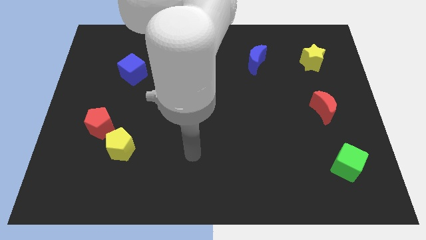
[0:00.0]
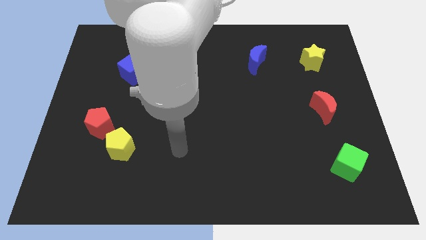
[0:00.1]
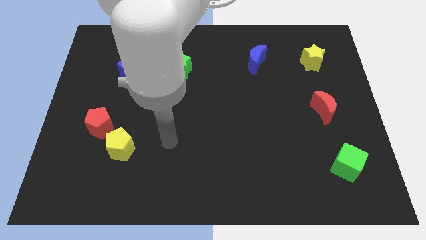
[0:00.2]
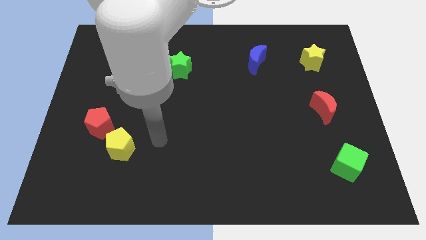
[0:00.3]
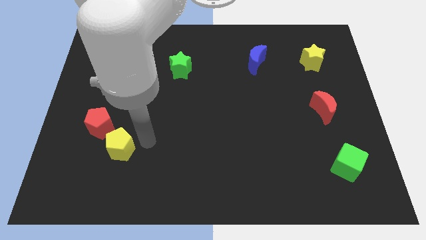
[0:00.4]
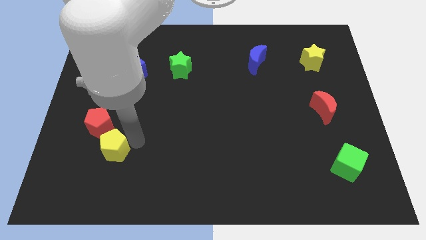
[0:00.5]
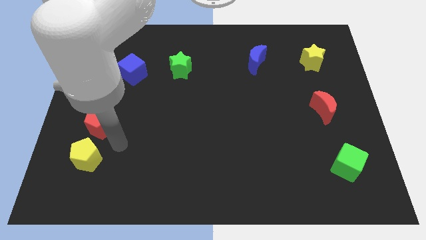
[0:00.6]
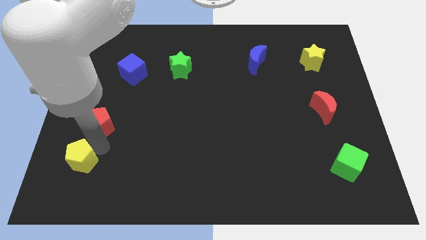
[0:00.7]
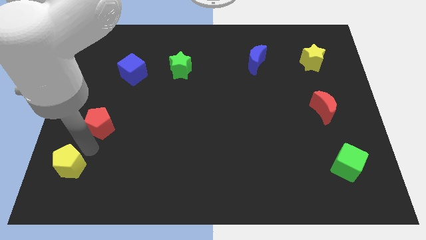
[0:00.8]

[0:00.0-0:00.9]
pull the red pentagon apart from the yellow pentagon

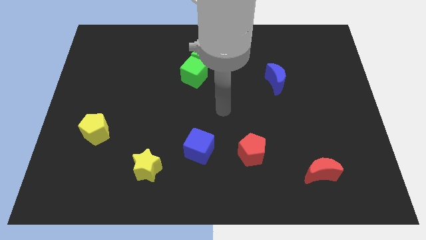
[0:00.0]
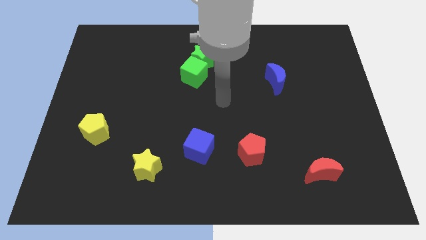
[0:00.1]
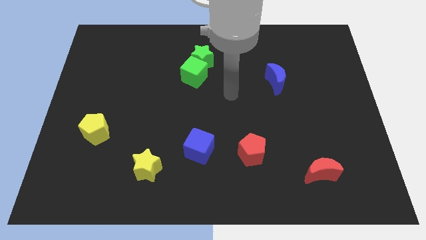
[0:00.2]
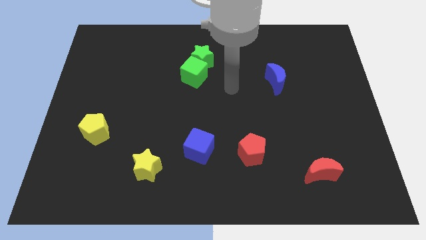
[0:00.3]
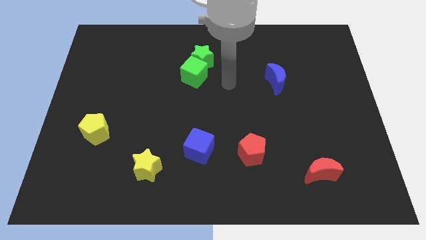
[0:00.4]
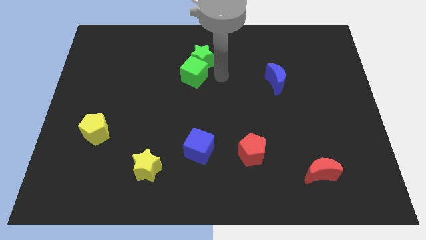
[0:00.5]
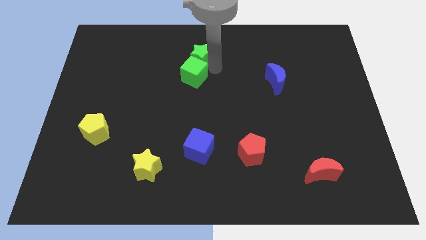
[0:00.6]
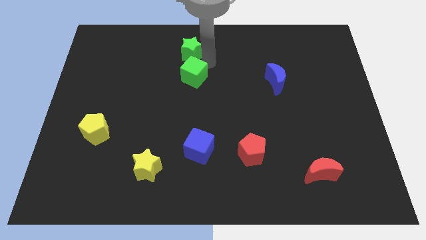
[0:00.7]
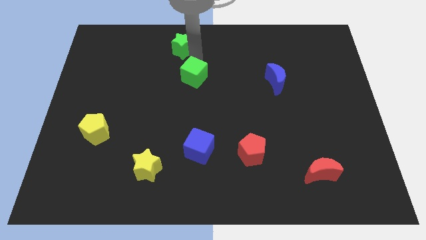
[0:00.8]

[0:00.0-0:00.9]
move the green cube away from the green star

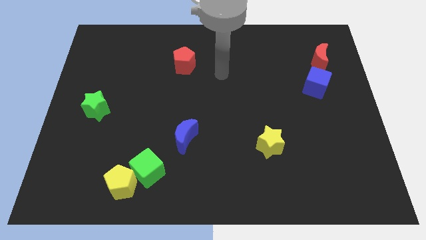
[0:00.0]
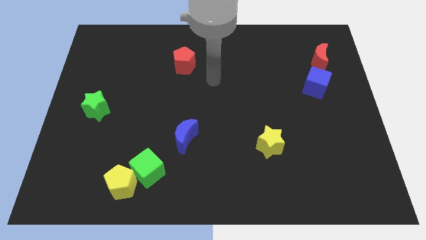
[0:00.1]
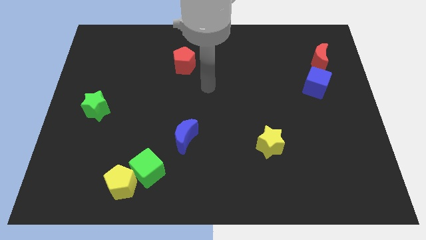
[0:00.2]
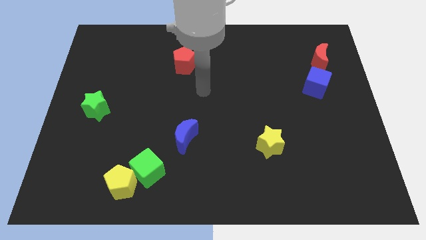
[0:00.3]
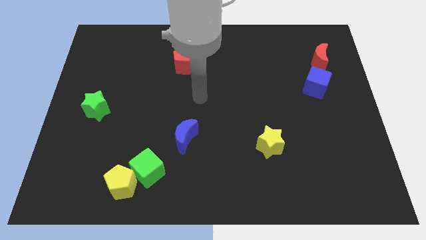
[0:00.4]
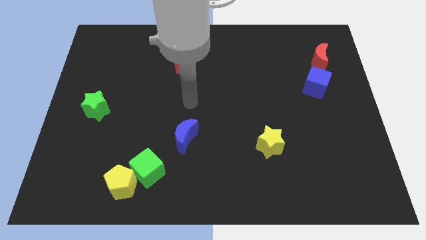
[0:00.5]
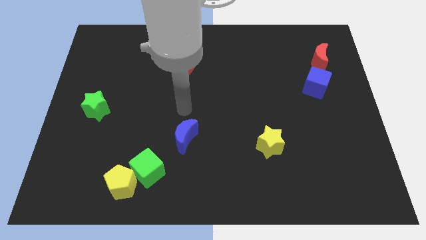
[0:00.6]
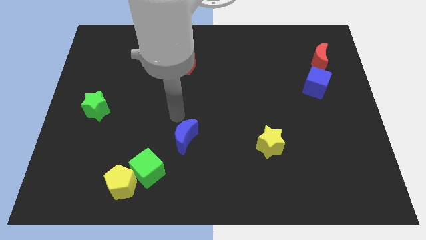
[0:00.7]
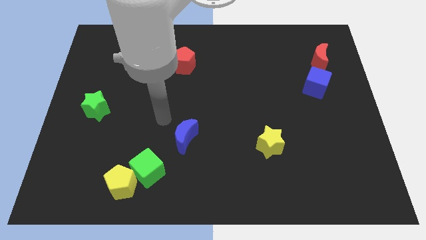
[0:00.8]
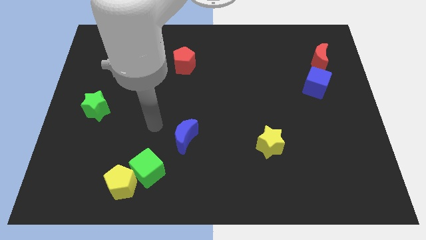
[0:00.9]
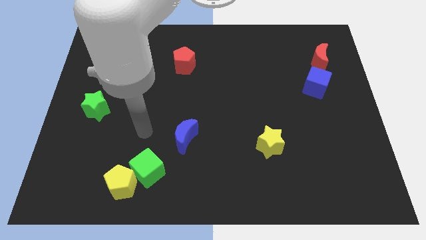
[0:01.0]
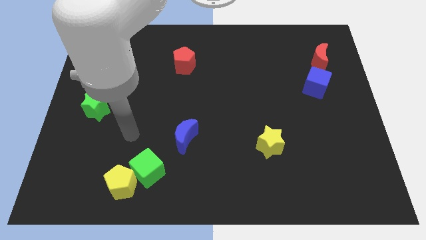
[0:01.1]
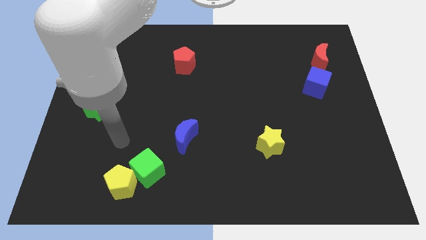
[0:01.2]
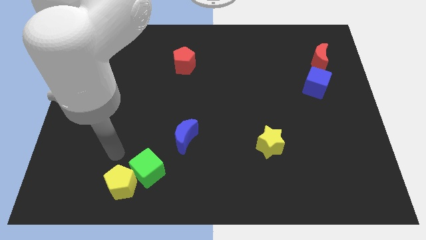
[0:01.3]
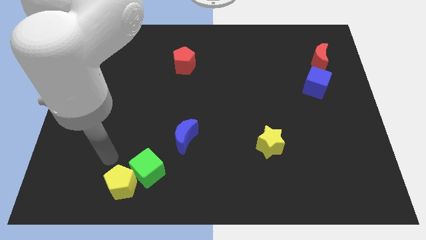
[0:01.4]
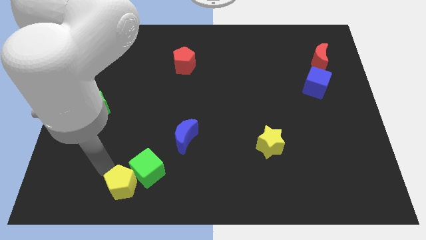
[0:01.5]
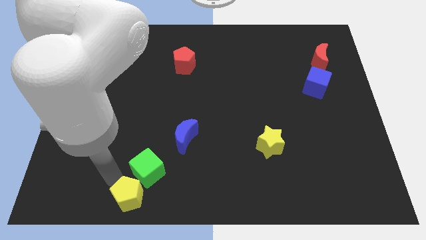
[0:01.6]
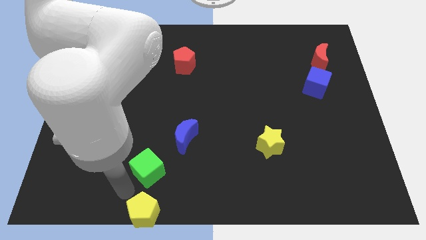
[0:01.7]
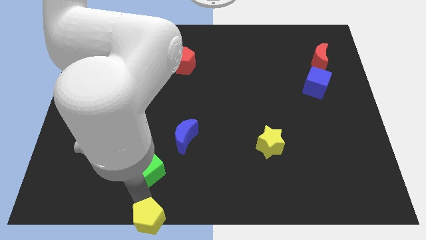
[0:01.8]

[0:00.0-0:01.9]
pull the green cube apart from the yellow pentagon

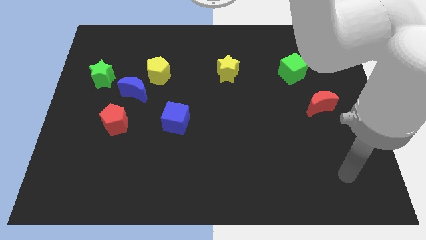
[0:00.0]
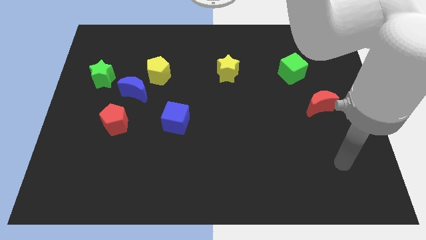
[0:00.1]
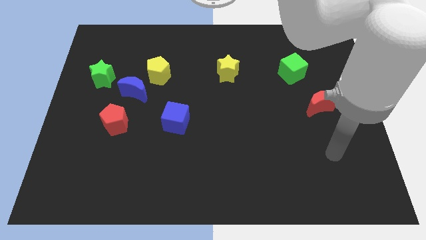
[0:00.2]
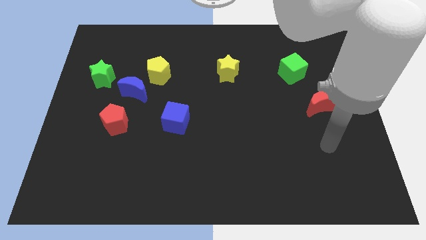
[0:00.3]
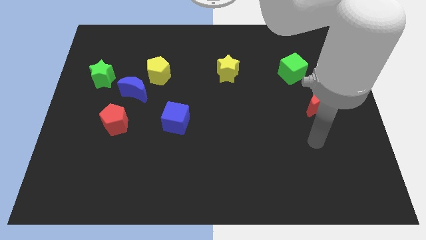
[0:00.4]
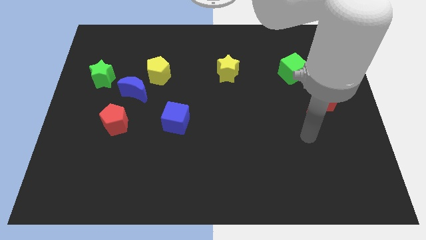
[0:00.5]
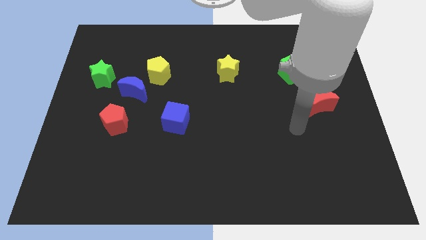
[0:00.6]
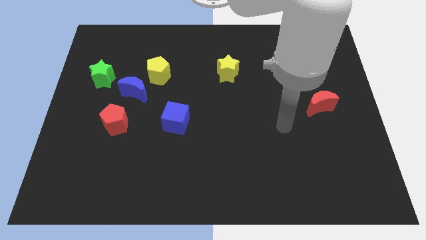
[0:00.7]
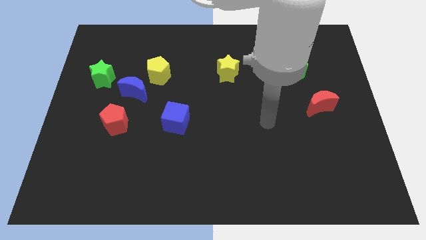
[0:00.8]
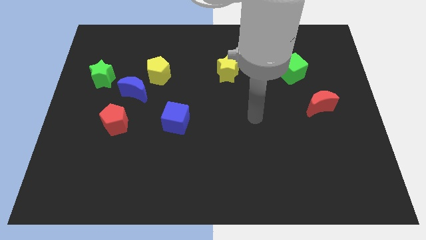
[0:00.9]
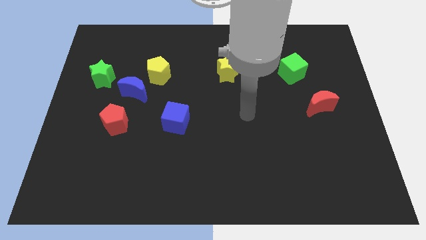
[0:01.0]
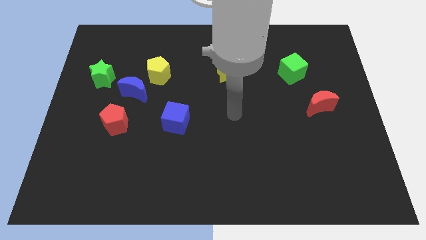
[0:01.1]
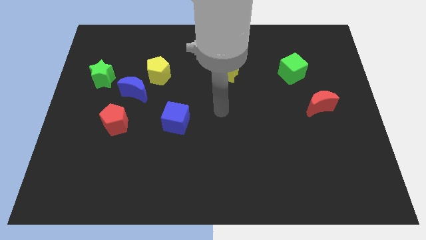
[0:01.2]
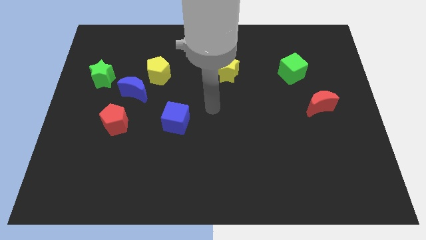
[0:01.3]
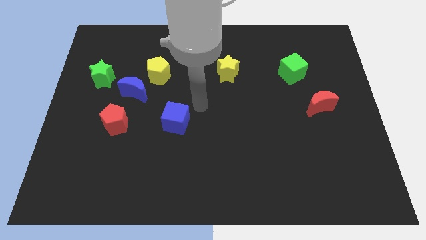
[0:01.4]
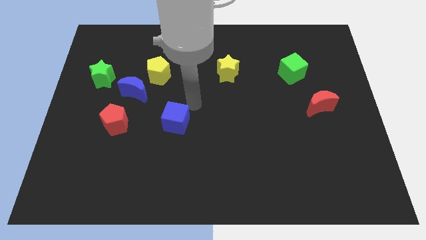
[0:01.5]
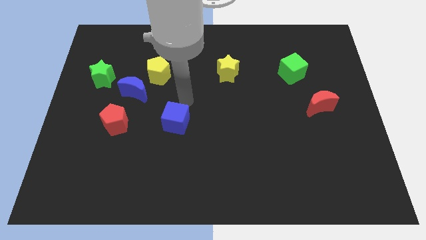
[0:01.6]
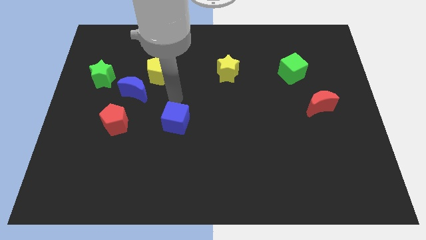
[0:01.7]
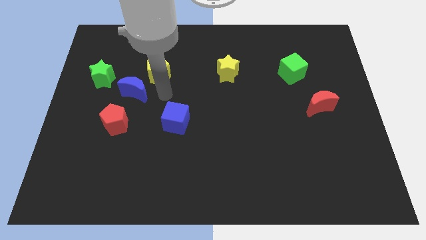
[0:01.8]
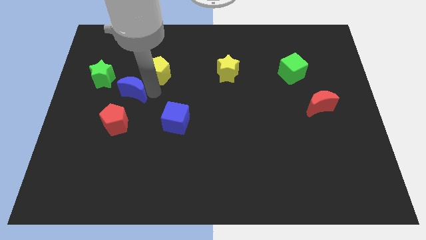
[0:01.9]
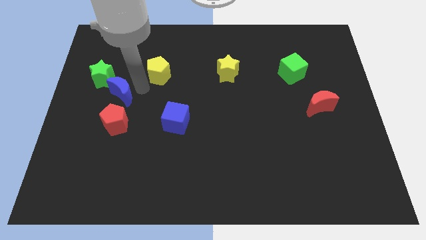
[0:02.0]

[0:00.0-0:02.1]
pull the yellow pentagon apart from the blue moon

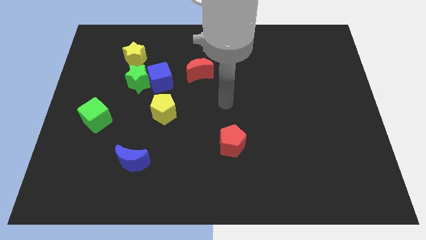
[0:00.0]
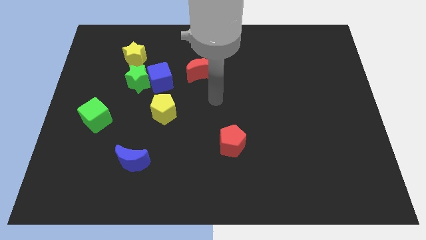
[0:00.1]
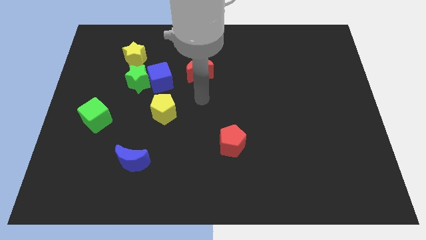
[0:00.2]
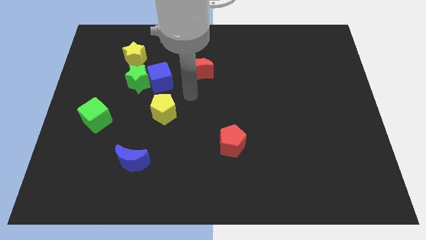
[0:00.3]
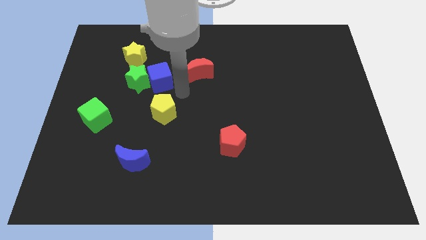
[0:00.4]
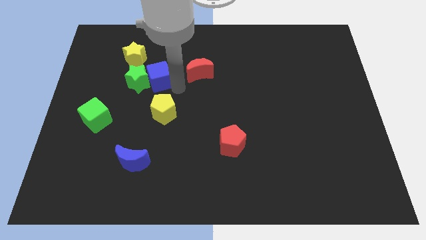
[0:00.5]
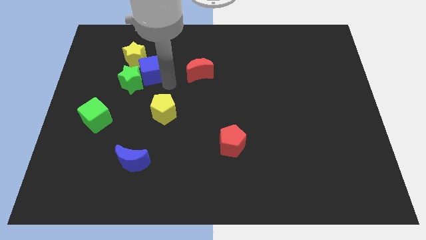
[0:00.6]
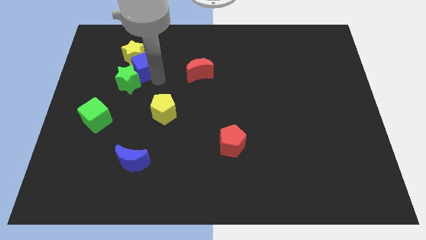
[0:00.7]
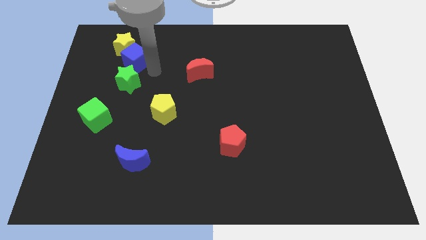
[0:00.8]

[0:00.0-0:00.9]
separate the green star from the blue cube and yellow star

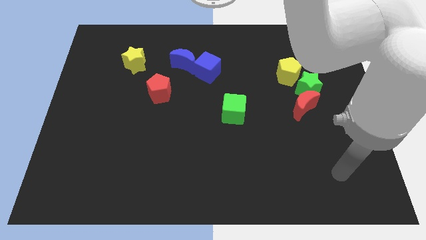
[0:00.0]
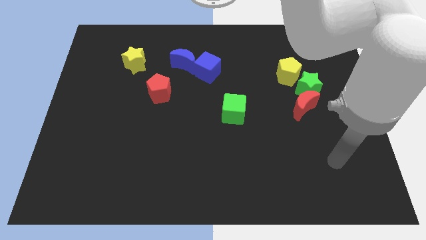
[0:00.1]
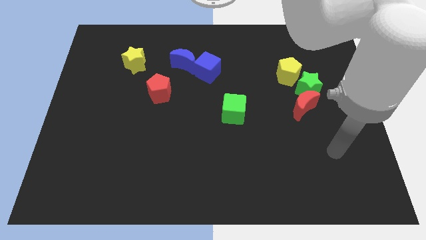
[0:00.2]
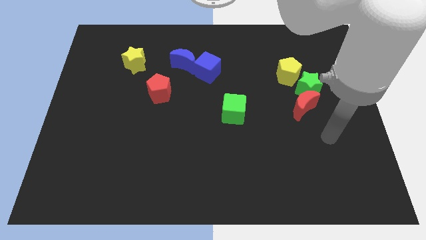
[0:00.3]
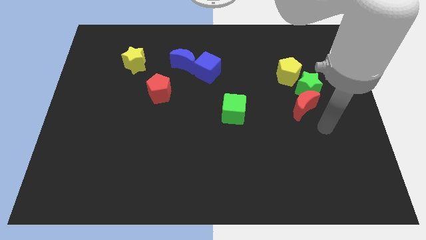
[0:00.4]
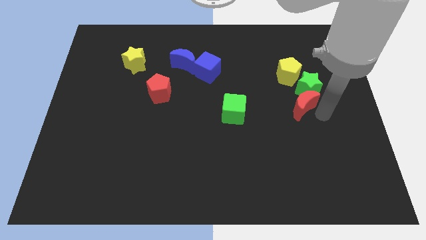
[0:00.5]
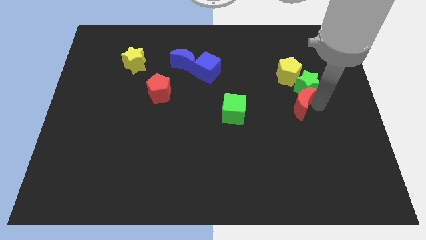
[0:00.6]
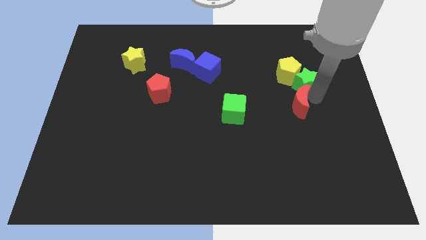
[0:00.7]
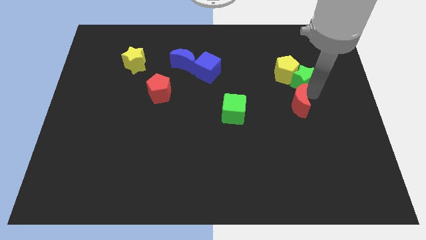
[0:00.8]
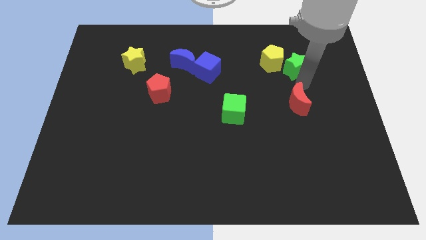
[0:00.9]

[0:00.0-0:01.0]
move the red moon away from the green star

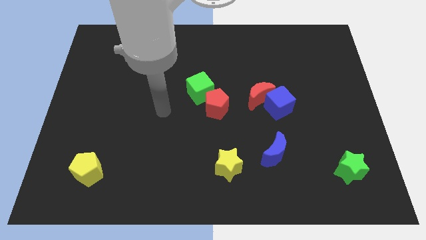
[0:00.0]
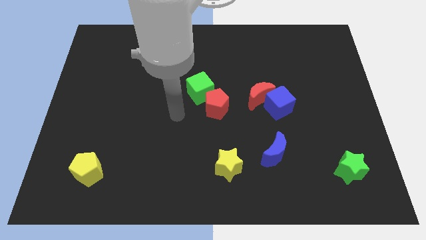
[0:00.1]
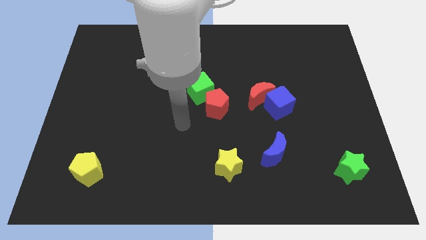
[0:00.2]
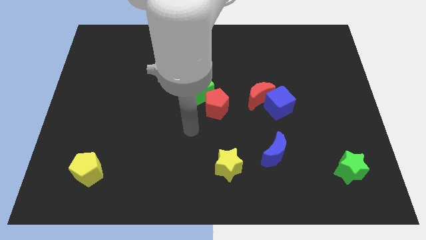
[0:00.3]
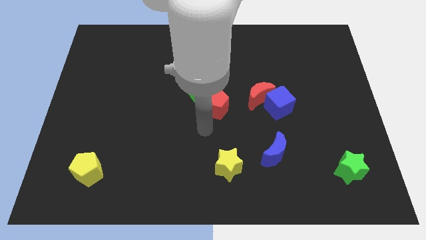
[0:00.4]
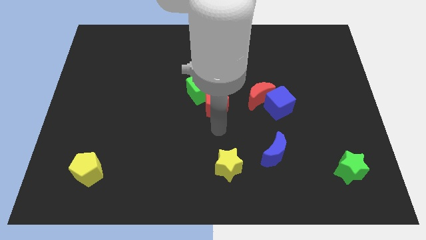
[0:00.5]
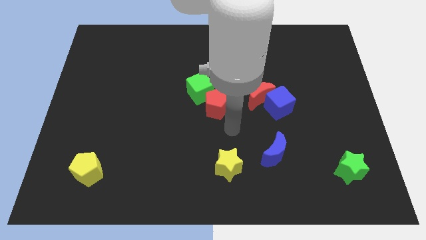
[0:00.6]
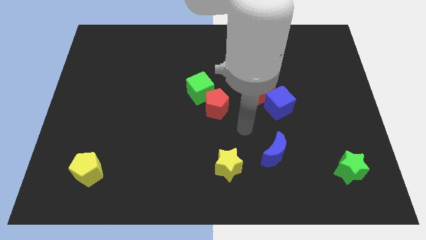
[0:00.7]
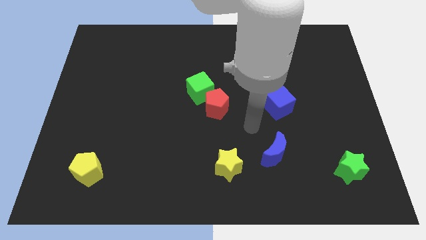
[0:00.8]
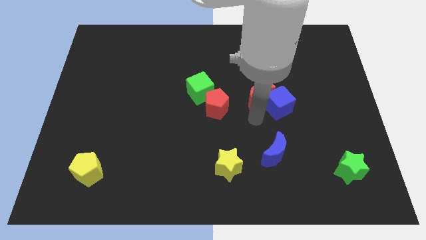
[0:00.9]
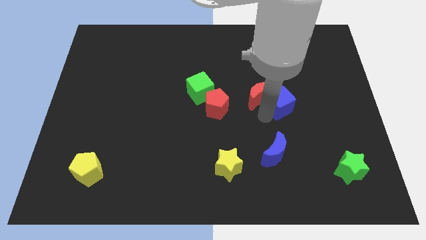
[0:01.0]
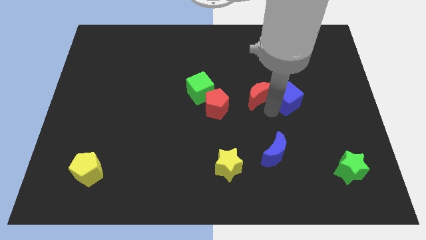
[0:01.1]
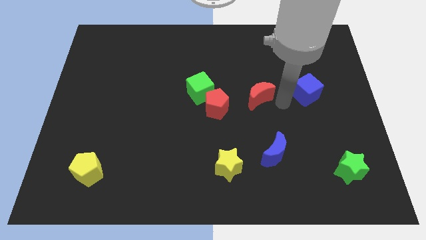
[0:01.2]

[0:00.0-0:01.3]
separate the red moon from the blue cube

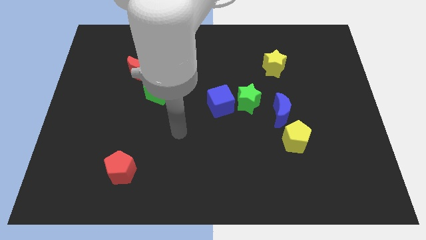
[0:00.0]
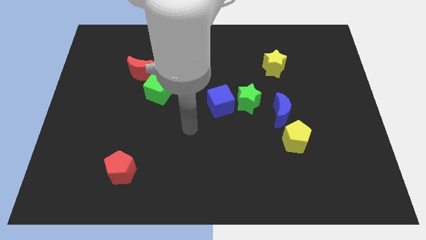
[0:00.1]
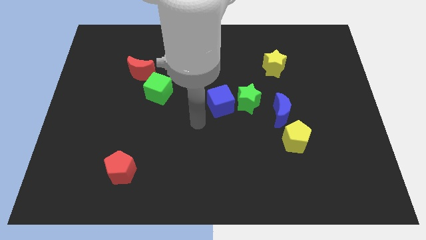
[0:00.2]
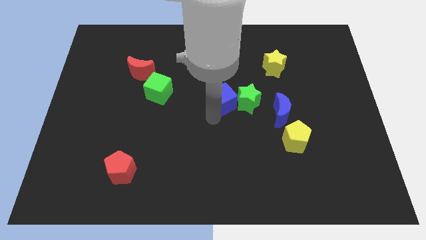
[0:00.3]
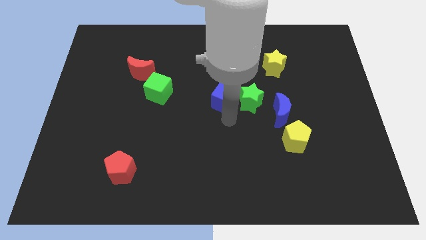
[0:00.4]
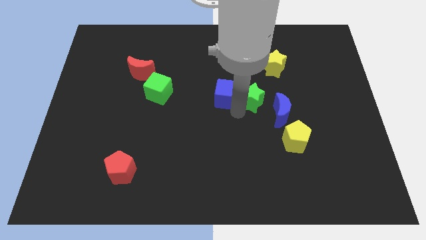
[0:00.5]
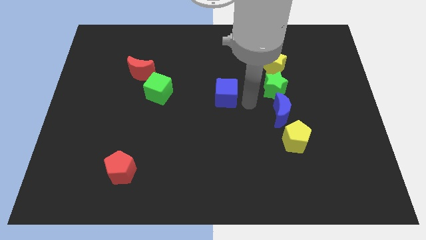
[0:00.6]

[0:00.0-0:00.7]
separate the blue cube from the green star
